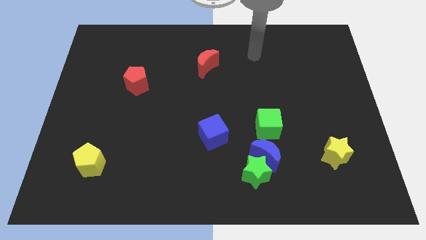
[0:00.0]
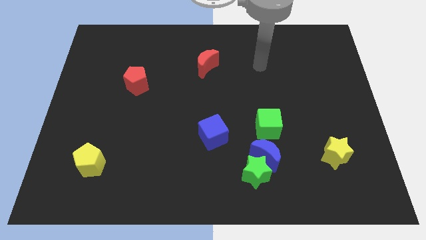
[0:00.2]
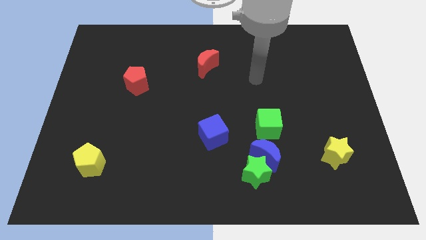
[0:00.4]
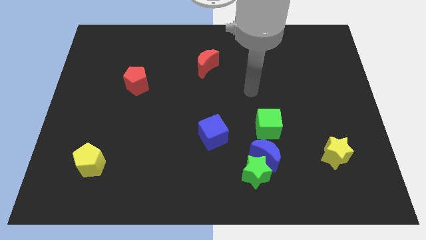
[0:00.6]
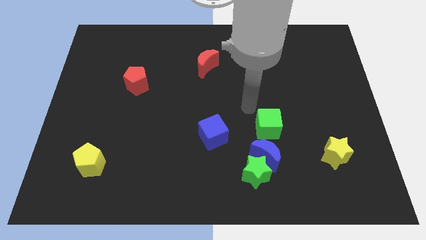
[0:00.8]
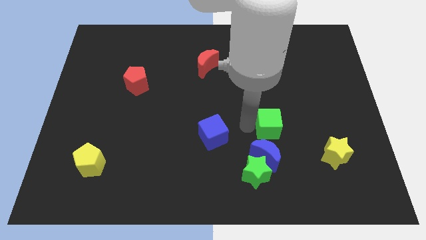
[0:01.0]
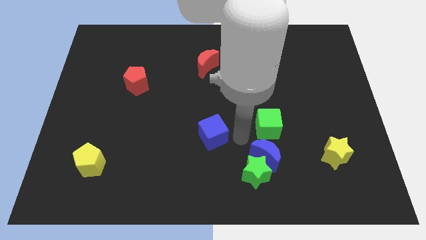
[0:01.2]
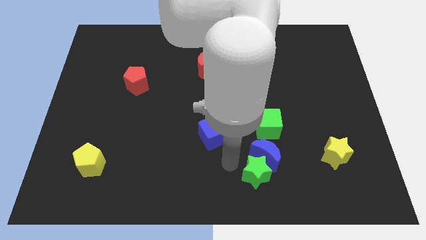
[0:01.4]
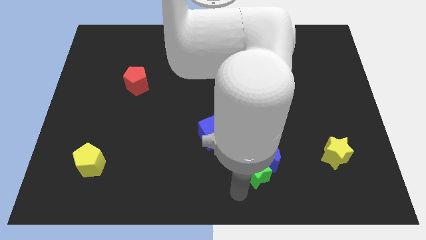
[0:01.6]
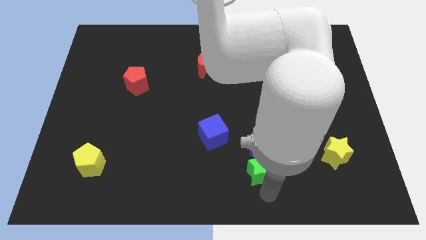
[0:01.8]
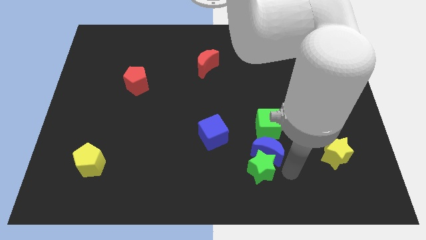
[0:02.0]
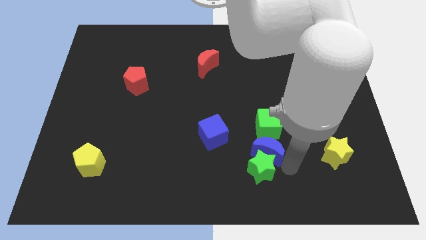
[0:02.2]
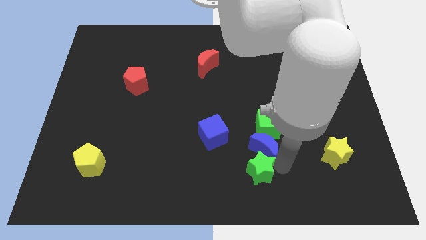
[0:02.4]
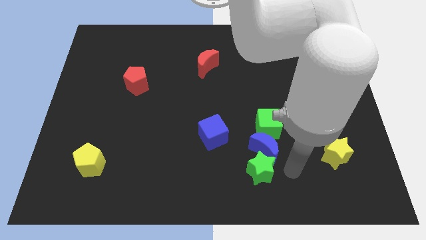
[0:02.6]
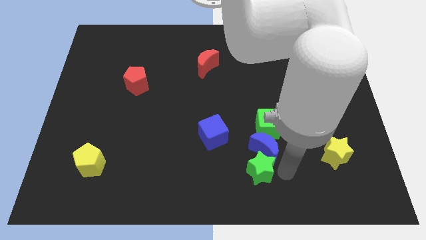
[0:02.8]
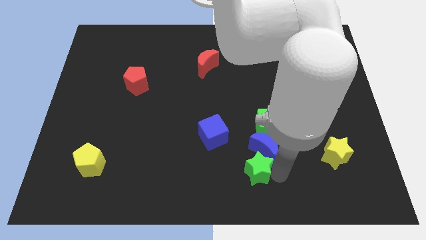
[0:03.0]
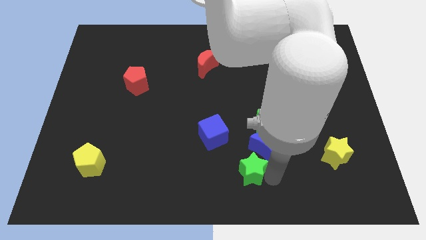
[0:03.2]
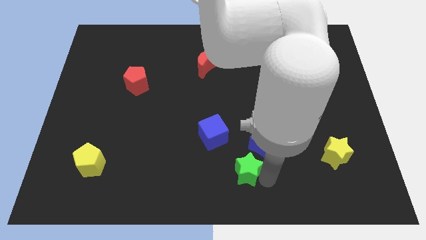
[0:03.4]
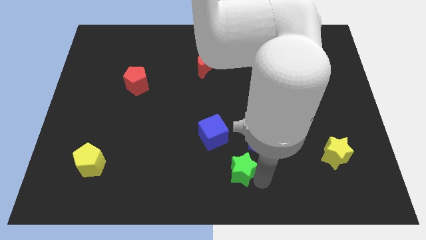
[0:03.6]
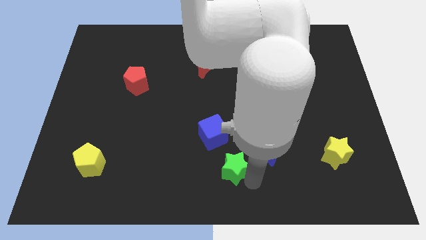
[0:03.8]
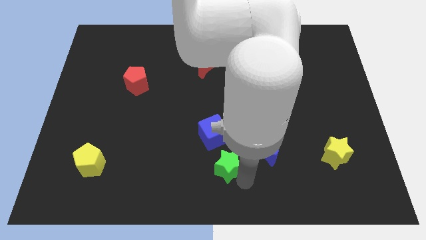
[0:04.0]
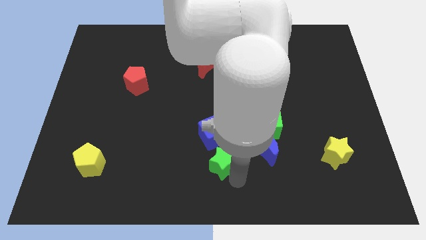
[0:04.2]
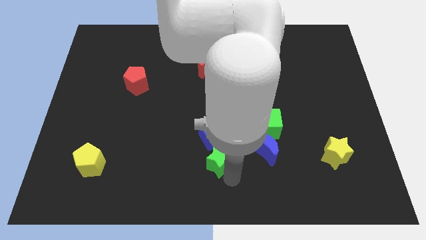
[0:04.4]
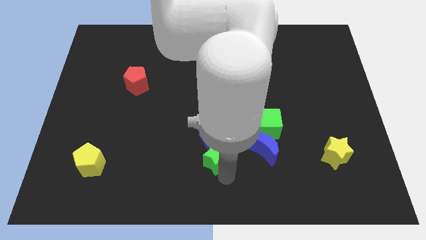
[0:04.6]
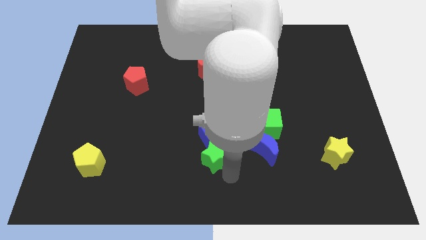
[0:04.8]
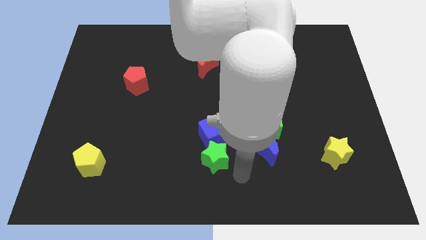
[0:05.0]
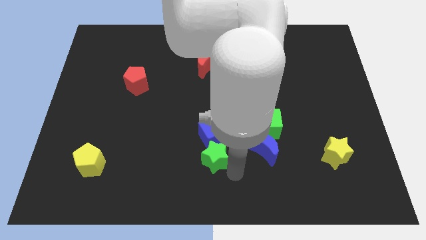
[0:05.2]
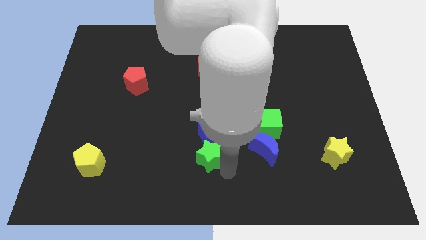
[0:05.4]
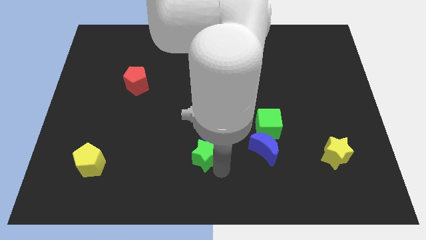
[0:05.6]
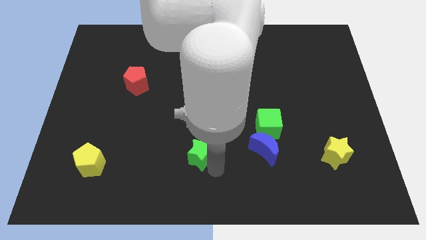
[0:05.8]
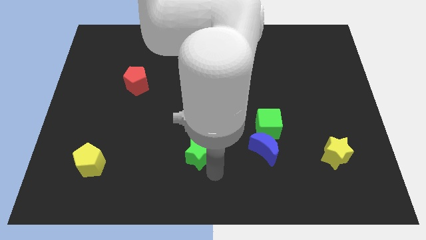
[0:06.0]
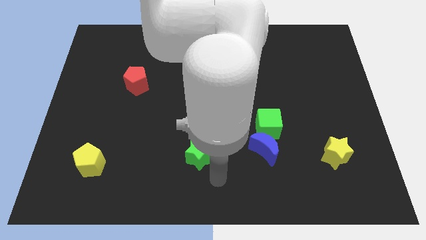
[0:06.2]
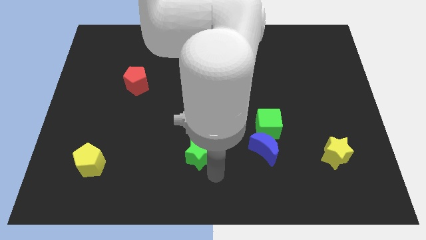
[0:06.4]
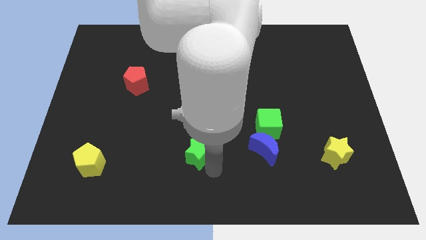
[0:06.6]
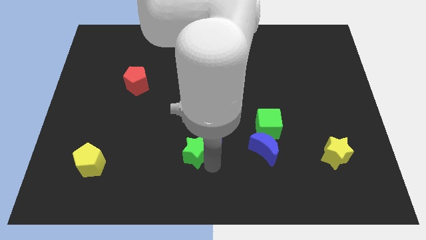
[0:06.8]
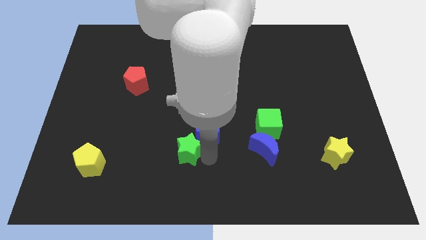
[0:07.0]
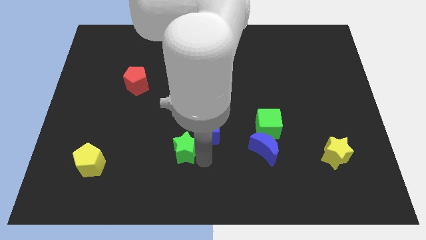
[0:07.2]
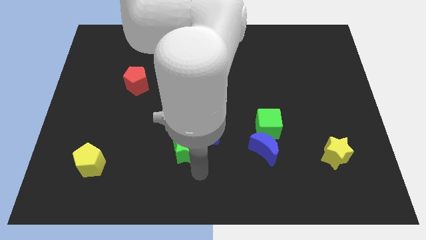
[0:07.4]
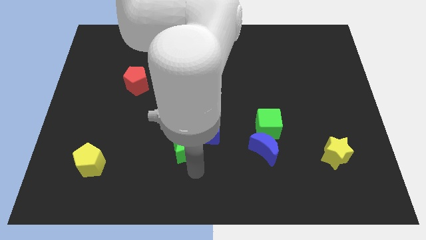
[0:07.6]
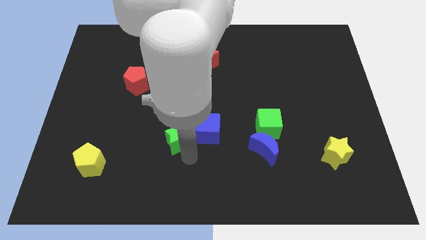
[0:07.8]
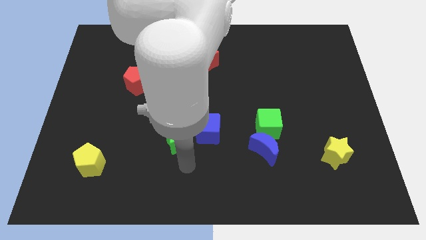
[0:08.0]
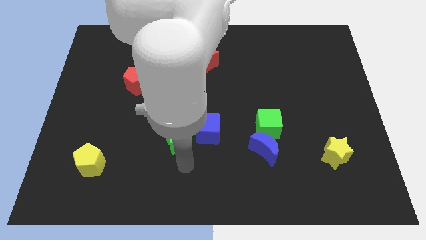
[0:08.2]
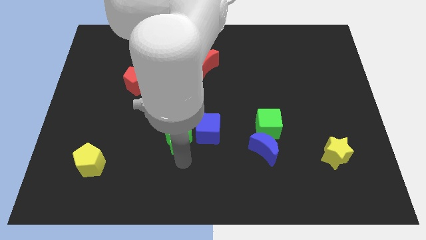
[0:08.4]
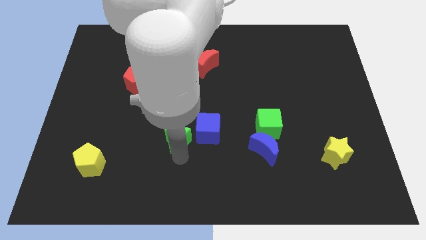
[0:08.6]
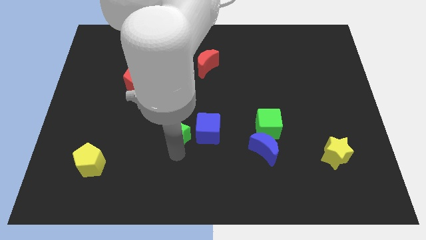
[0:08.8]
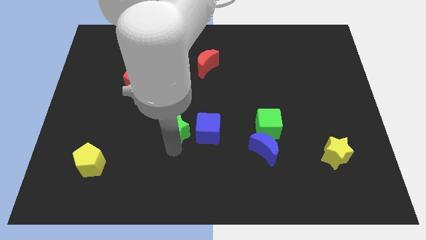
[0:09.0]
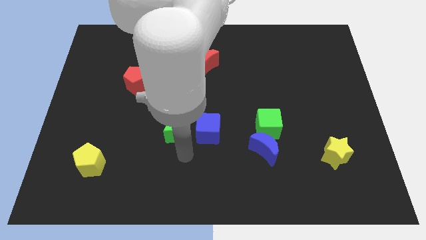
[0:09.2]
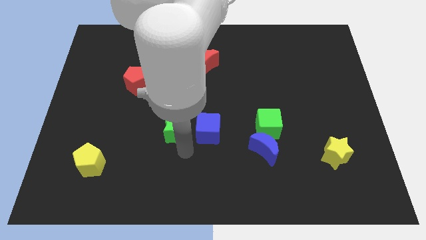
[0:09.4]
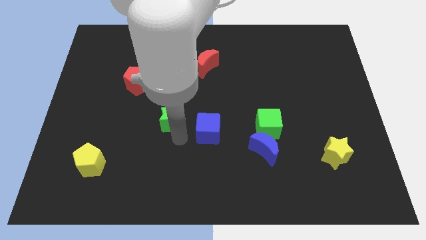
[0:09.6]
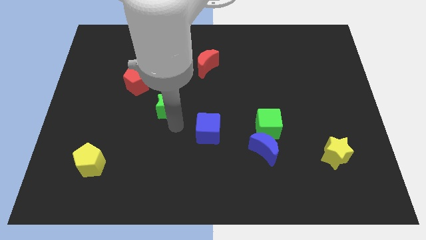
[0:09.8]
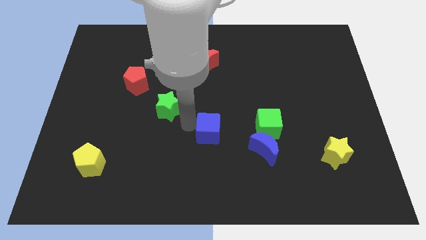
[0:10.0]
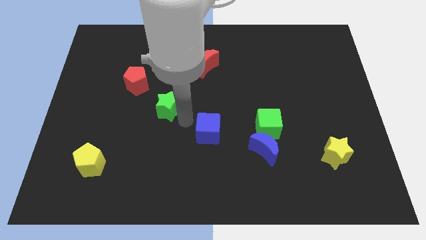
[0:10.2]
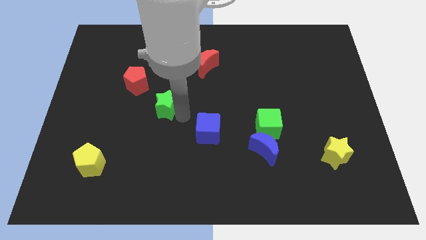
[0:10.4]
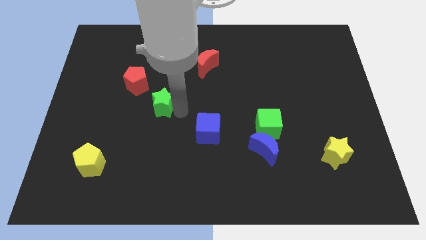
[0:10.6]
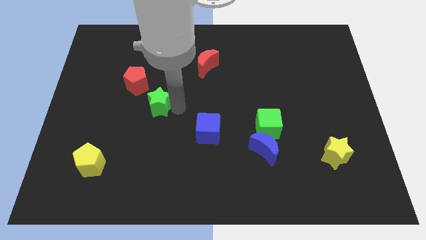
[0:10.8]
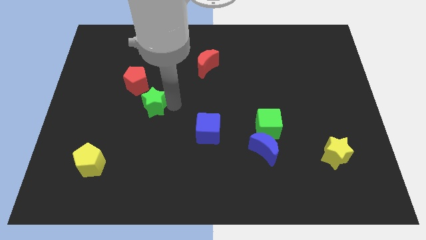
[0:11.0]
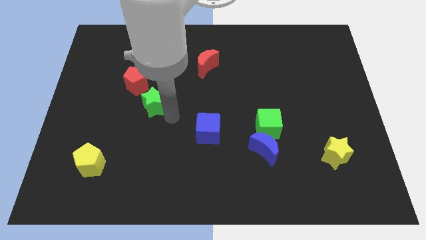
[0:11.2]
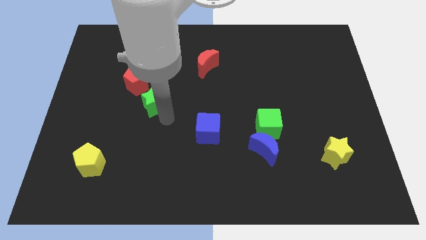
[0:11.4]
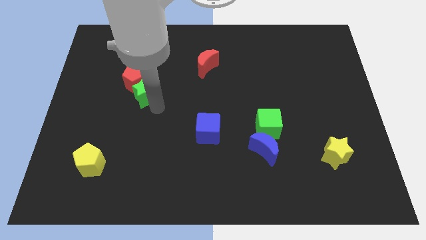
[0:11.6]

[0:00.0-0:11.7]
slide the green star close to the red pentagon

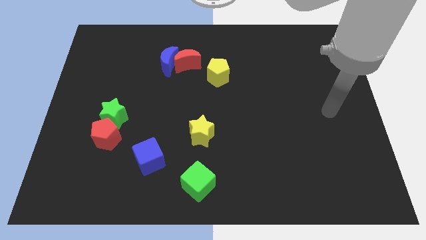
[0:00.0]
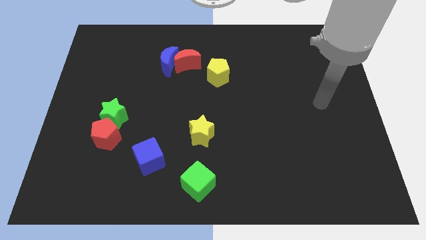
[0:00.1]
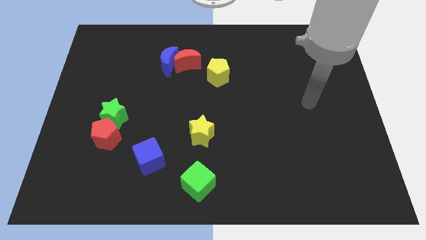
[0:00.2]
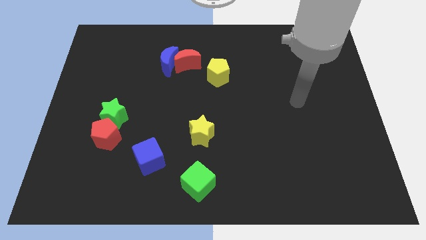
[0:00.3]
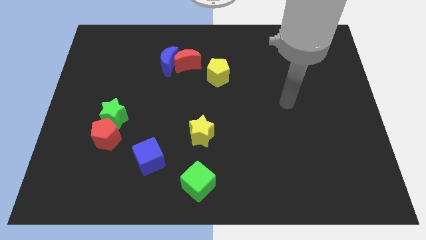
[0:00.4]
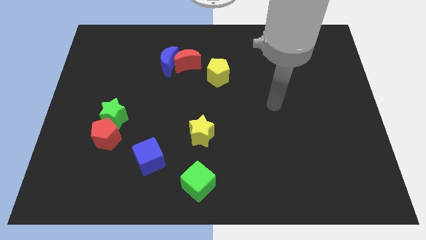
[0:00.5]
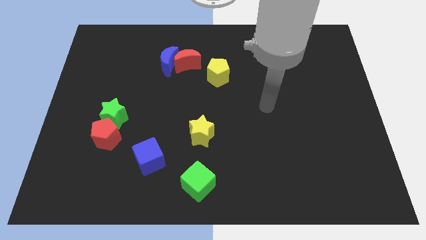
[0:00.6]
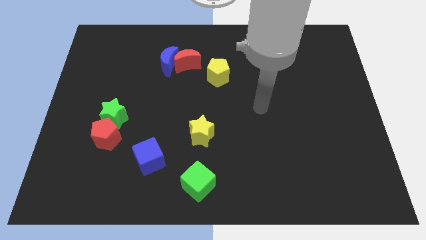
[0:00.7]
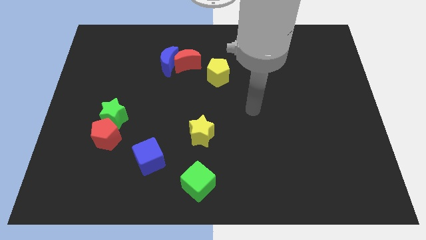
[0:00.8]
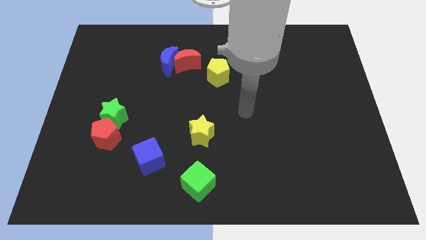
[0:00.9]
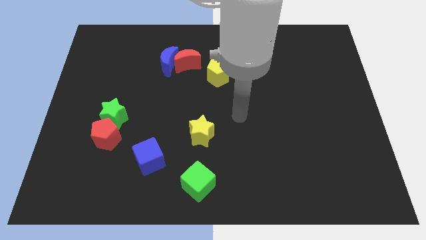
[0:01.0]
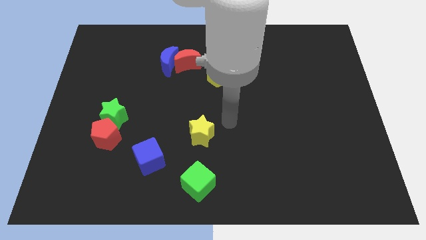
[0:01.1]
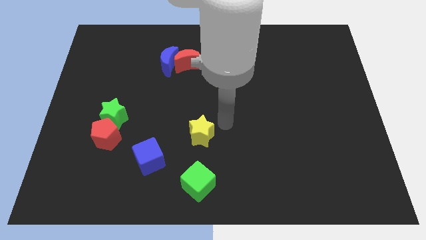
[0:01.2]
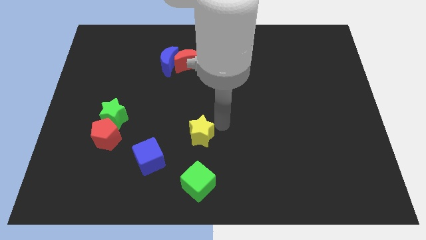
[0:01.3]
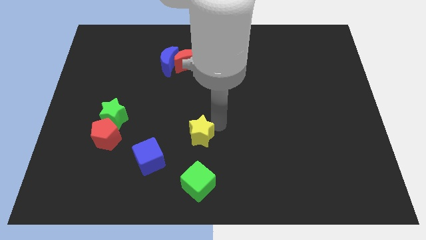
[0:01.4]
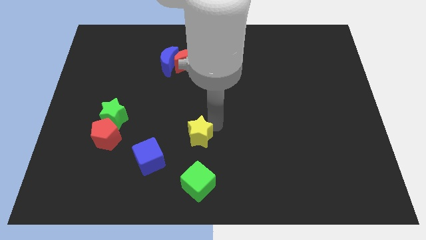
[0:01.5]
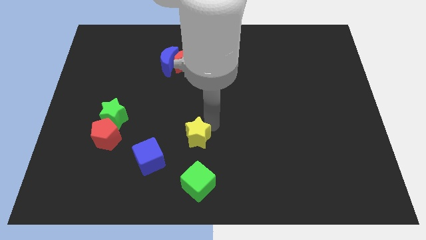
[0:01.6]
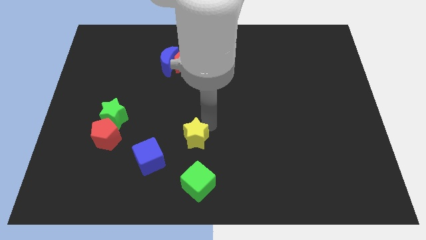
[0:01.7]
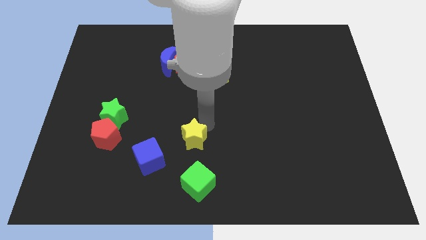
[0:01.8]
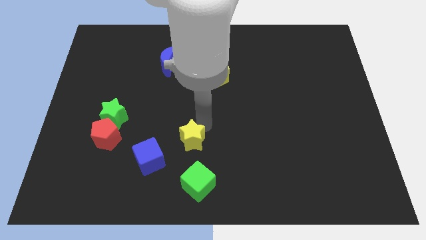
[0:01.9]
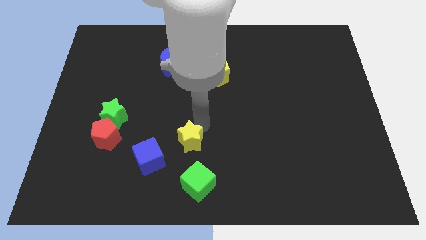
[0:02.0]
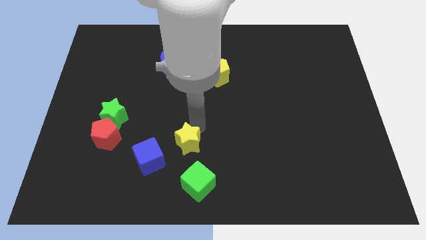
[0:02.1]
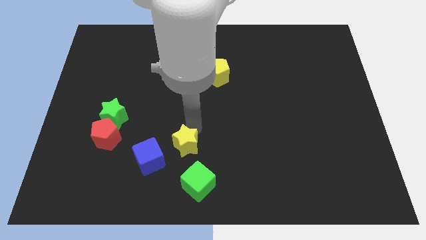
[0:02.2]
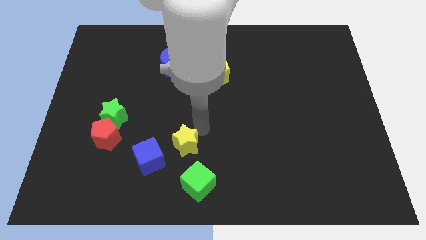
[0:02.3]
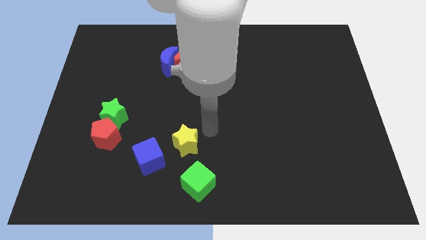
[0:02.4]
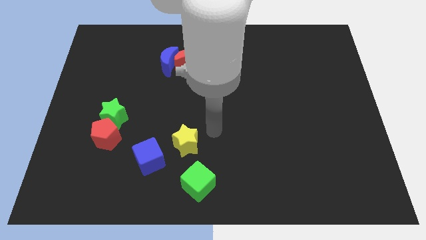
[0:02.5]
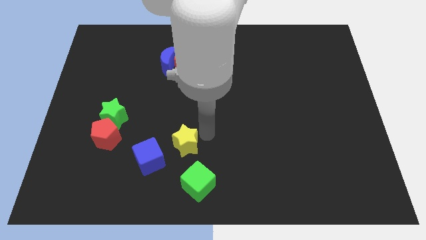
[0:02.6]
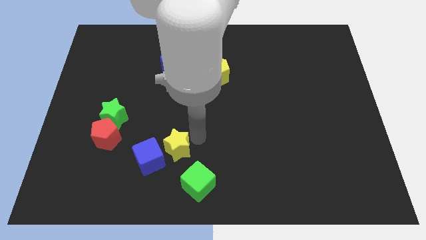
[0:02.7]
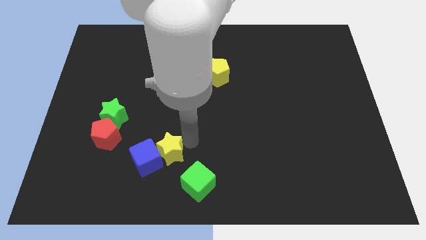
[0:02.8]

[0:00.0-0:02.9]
push the yellow star next to the blue cube
